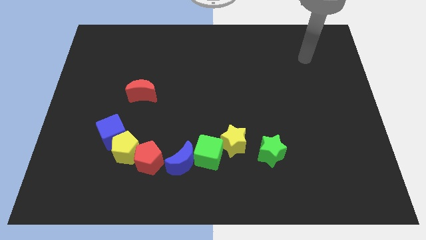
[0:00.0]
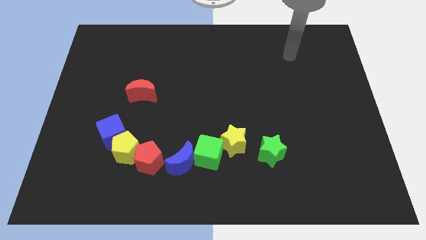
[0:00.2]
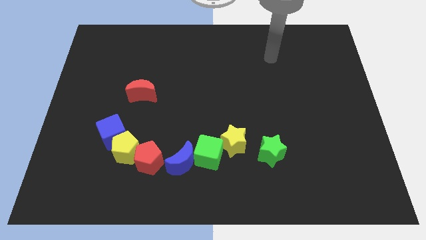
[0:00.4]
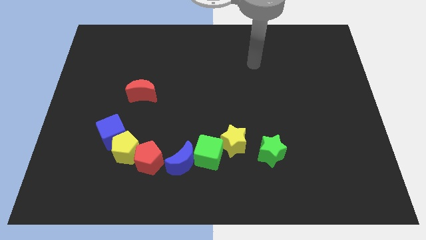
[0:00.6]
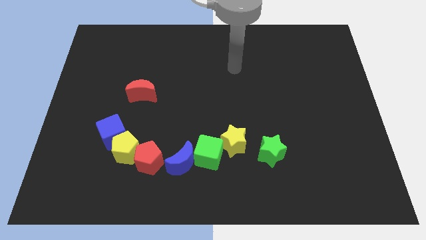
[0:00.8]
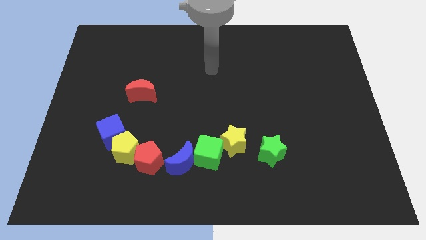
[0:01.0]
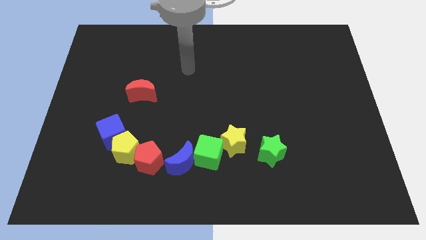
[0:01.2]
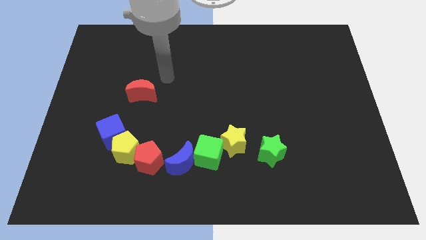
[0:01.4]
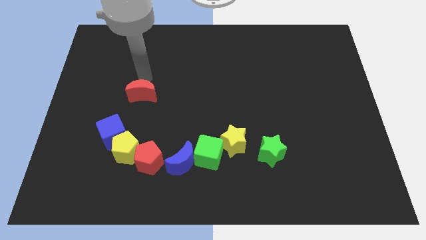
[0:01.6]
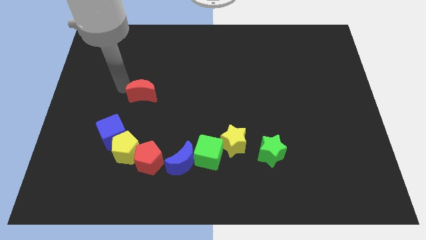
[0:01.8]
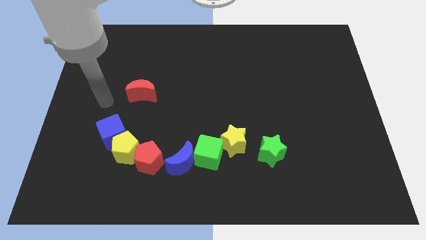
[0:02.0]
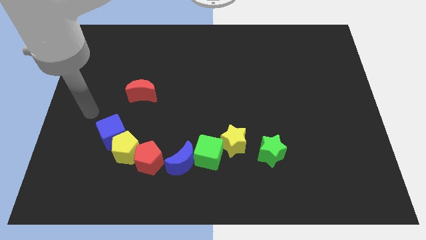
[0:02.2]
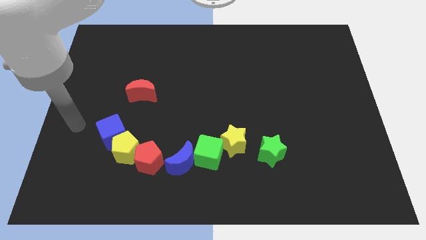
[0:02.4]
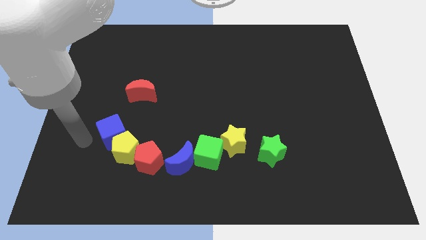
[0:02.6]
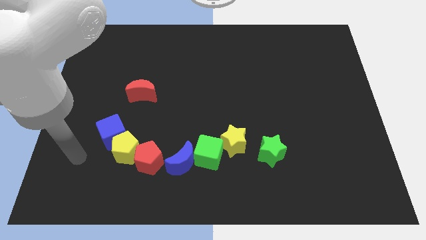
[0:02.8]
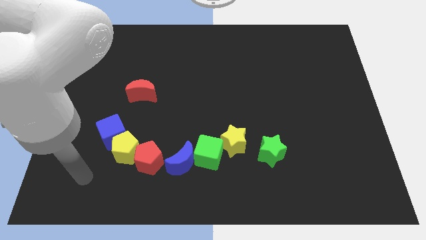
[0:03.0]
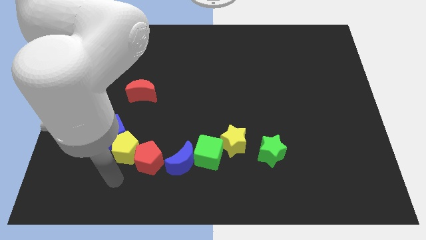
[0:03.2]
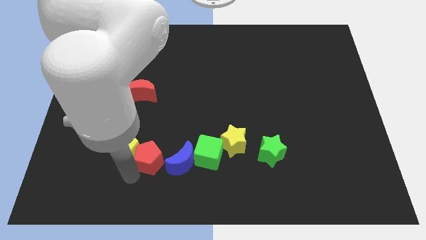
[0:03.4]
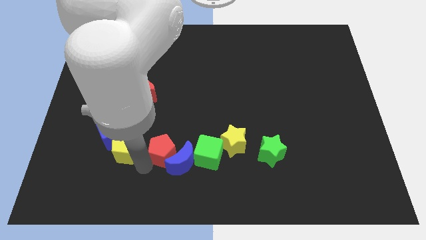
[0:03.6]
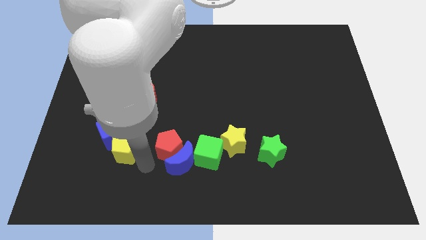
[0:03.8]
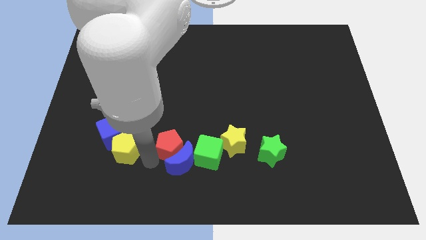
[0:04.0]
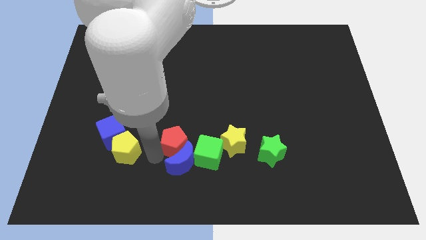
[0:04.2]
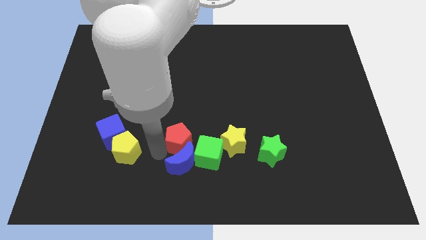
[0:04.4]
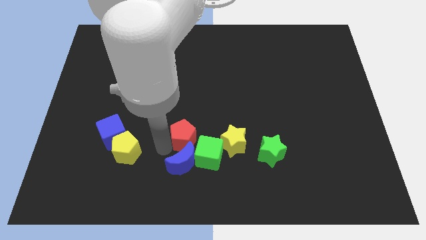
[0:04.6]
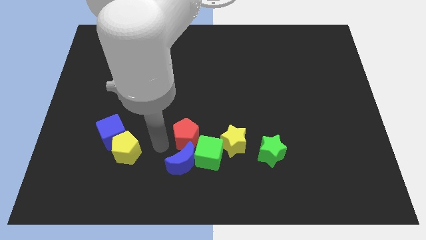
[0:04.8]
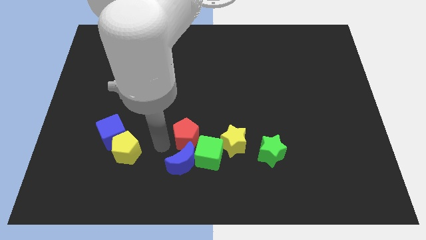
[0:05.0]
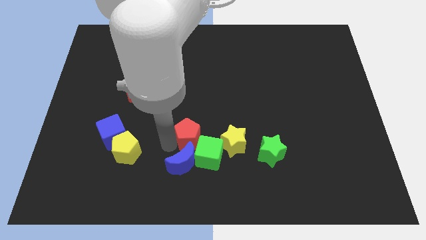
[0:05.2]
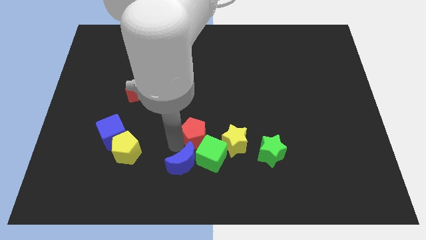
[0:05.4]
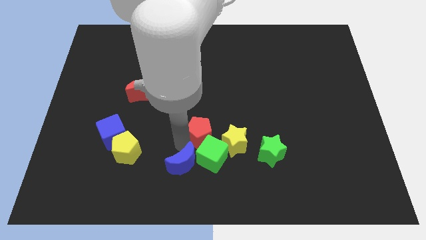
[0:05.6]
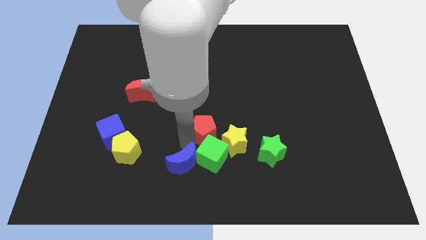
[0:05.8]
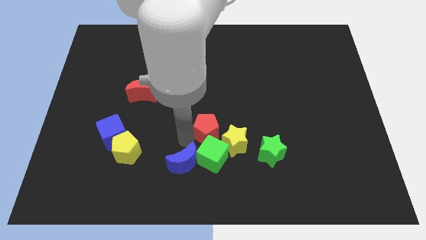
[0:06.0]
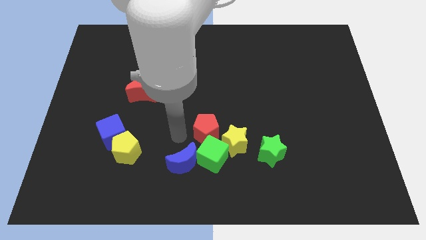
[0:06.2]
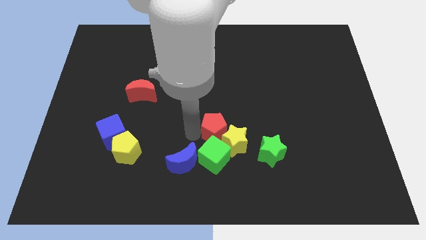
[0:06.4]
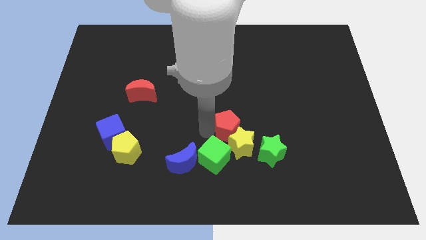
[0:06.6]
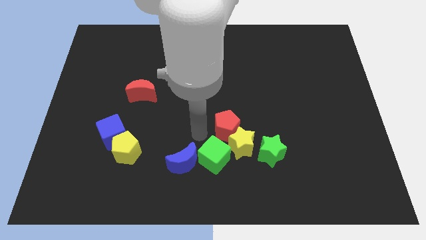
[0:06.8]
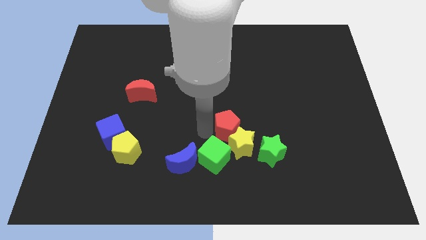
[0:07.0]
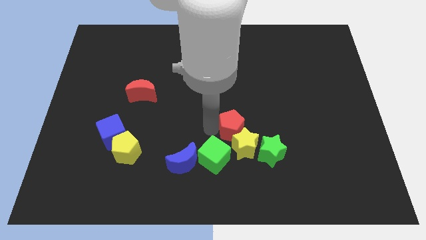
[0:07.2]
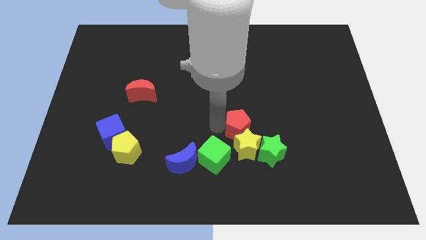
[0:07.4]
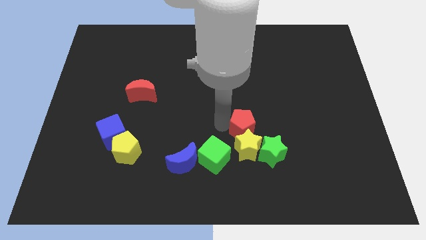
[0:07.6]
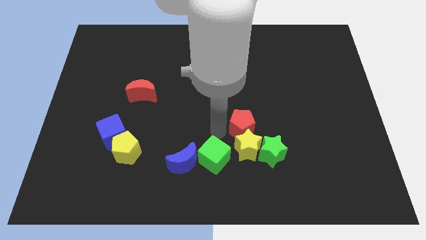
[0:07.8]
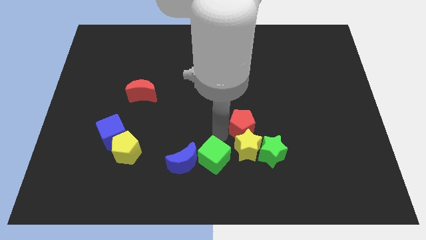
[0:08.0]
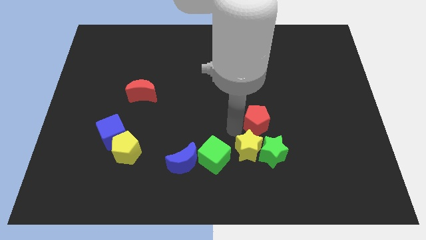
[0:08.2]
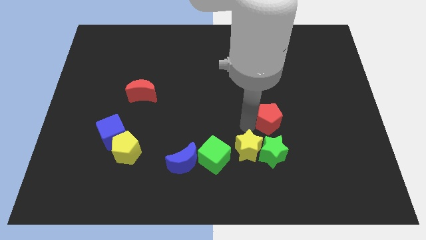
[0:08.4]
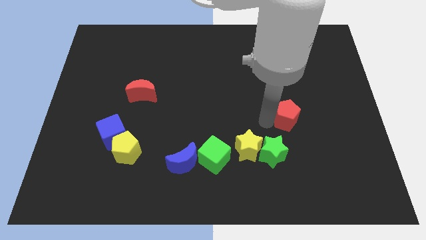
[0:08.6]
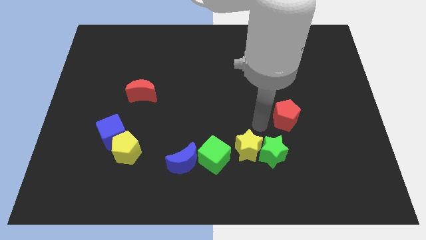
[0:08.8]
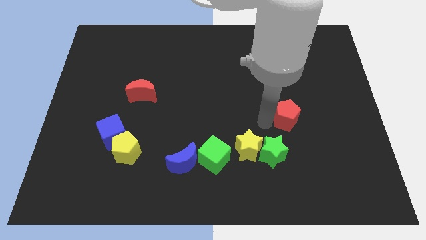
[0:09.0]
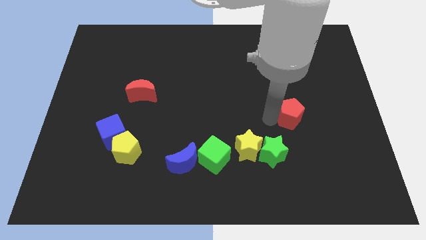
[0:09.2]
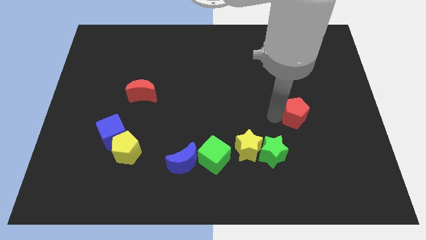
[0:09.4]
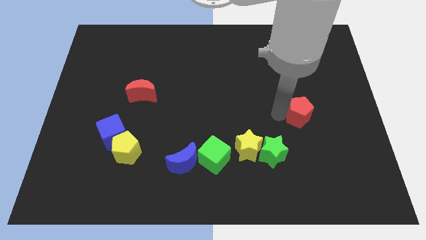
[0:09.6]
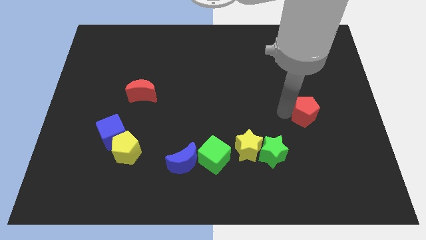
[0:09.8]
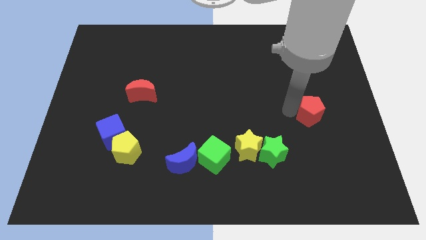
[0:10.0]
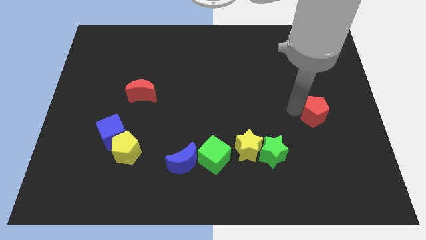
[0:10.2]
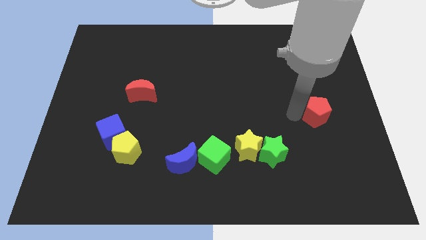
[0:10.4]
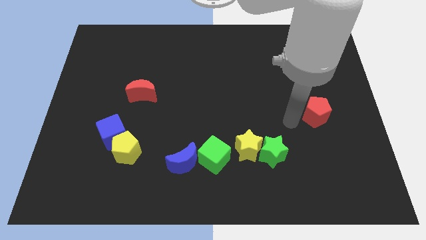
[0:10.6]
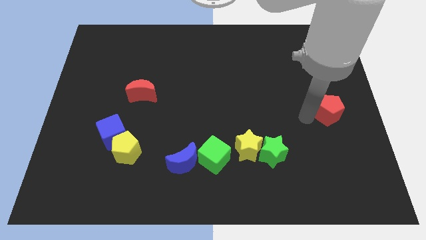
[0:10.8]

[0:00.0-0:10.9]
put the red pentagon to the right side

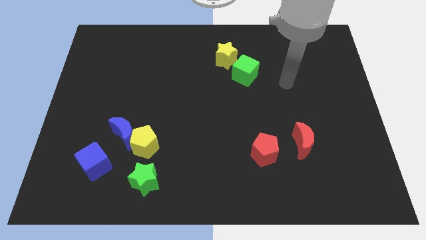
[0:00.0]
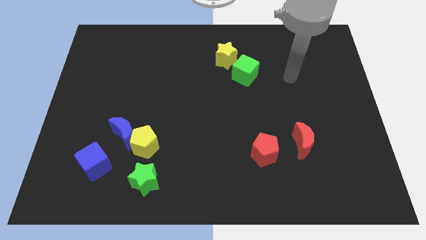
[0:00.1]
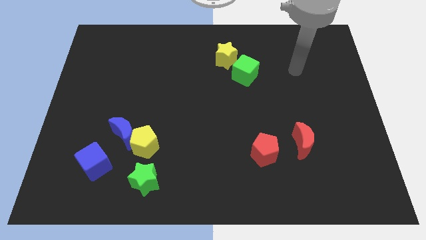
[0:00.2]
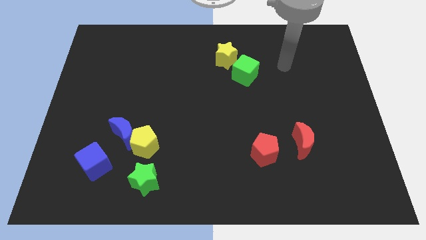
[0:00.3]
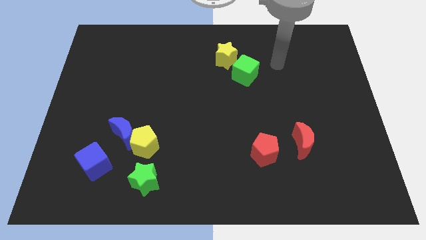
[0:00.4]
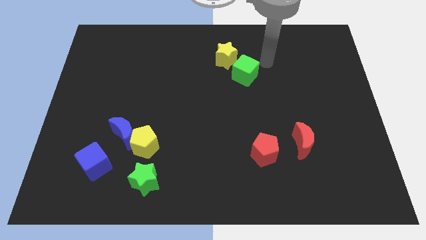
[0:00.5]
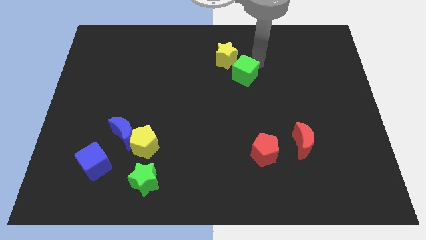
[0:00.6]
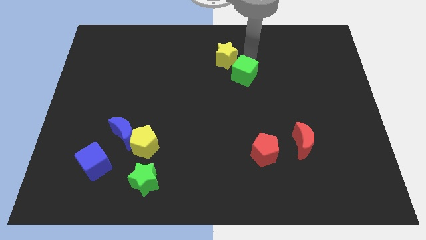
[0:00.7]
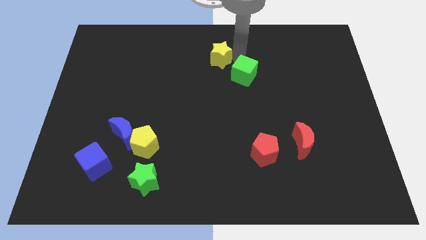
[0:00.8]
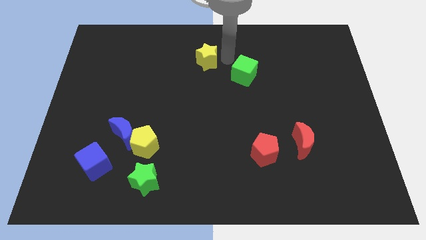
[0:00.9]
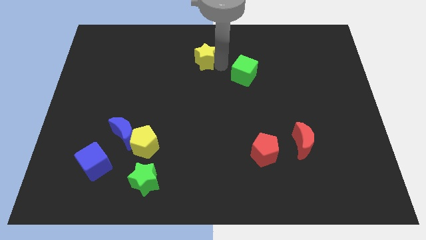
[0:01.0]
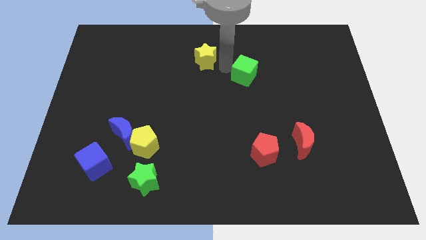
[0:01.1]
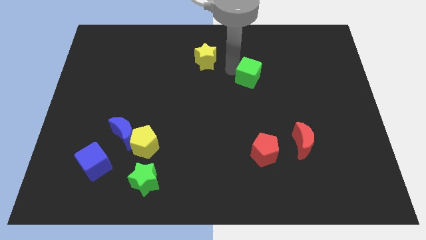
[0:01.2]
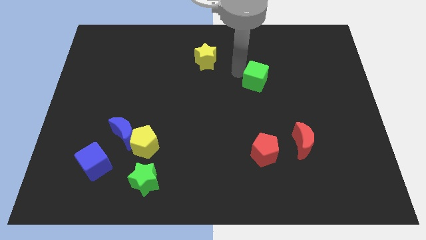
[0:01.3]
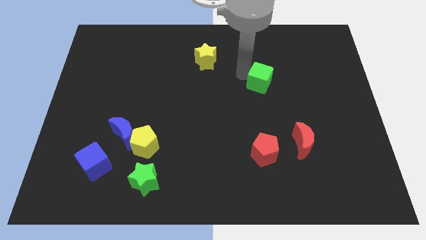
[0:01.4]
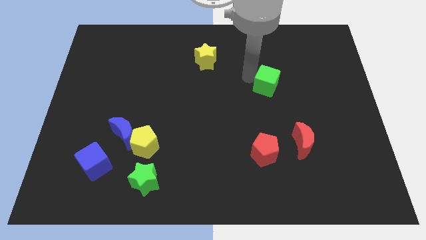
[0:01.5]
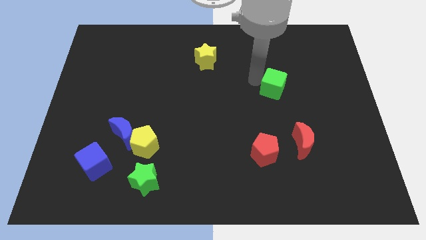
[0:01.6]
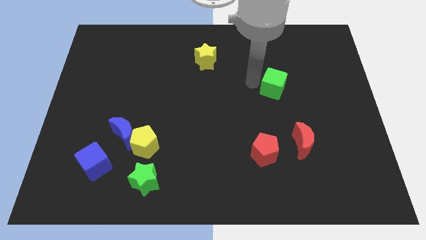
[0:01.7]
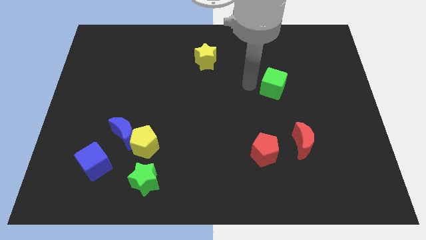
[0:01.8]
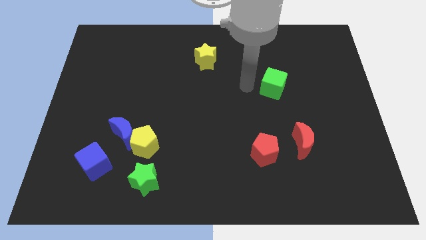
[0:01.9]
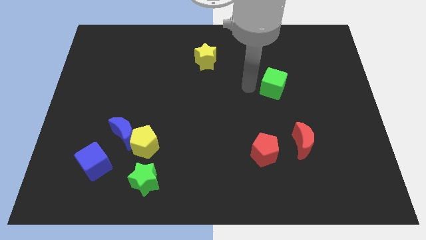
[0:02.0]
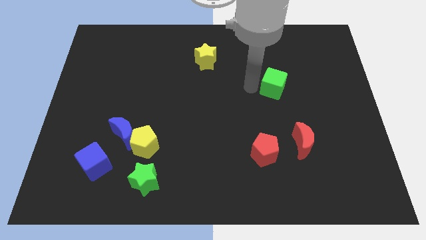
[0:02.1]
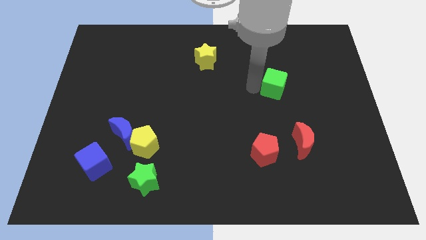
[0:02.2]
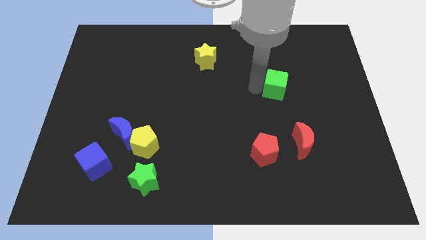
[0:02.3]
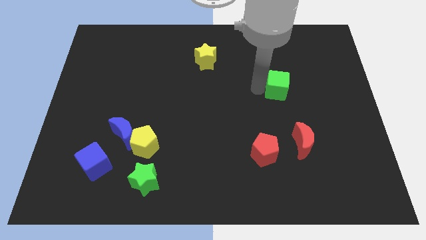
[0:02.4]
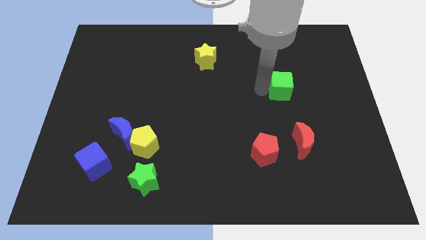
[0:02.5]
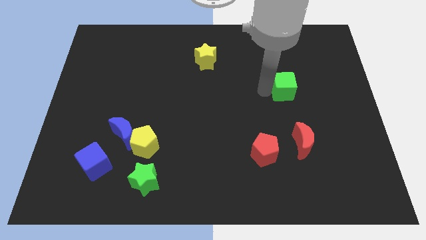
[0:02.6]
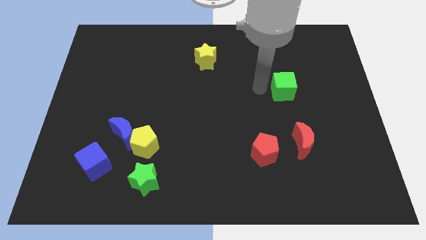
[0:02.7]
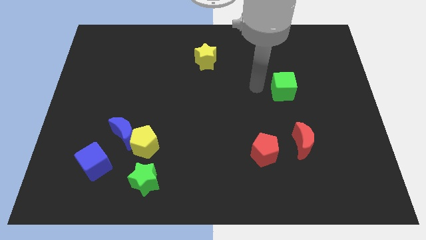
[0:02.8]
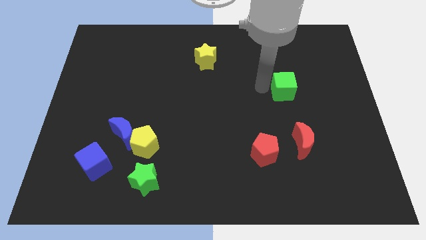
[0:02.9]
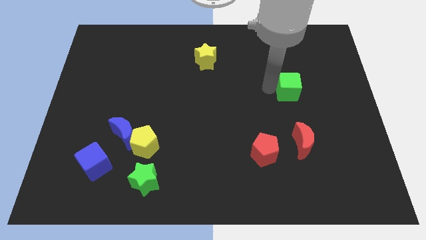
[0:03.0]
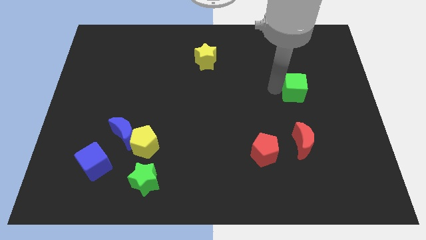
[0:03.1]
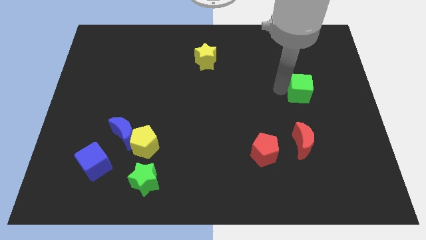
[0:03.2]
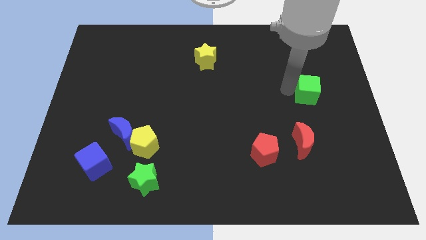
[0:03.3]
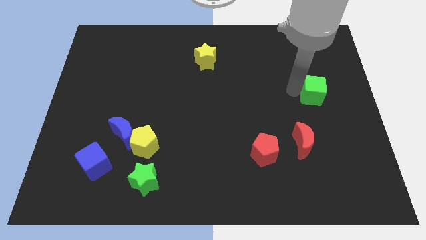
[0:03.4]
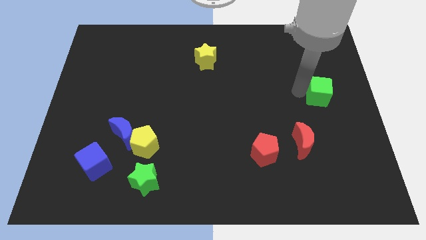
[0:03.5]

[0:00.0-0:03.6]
push the green cube to the right side of the board
